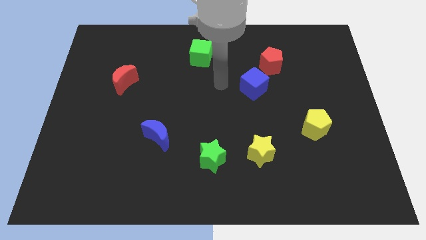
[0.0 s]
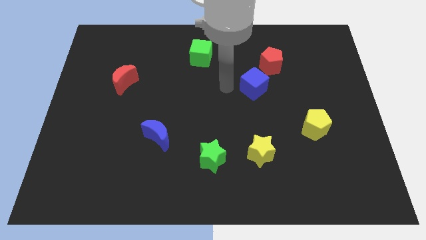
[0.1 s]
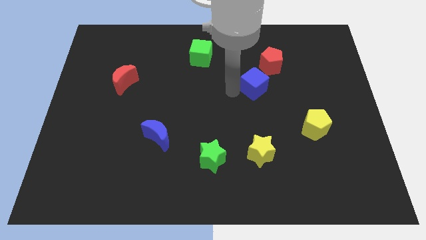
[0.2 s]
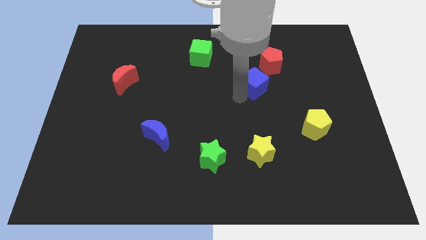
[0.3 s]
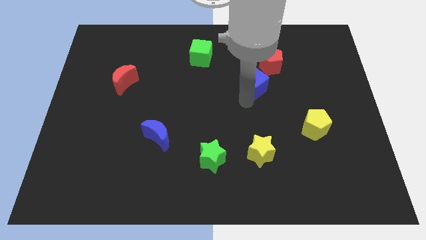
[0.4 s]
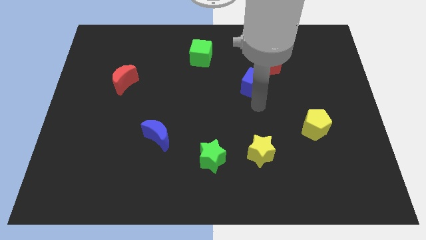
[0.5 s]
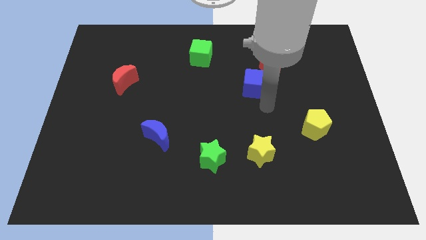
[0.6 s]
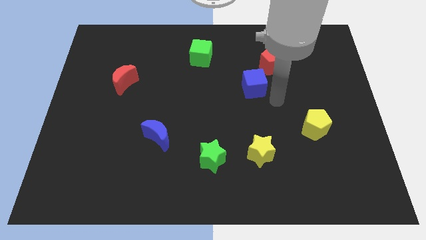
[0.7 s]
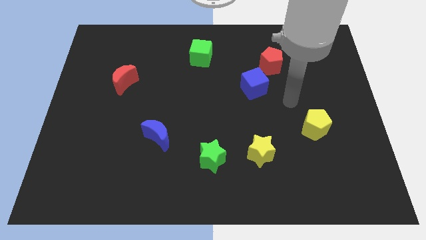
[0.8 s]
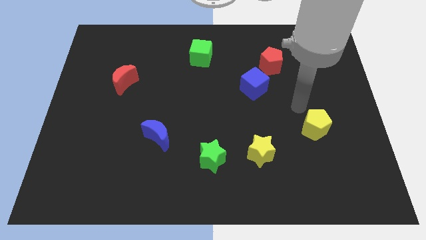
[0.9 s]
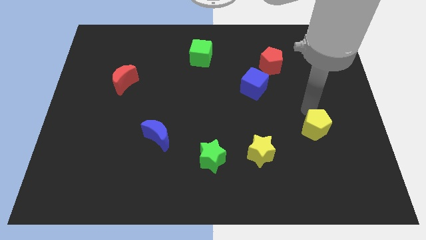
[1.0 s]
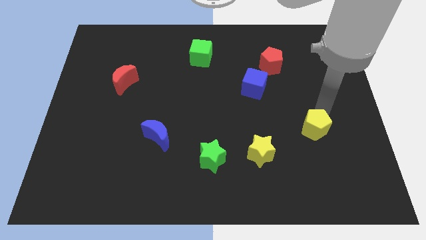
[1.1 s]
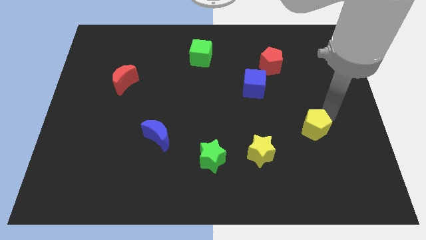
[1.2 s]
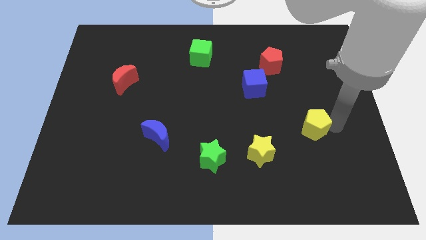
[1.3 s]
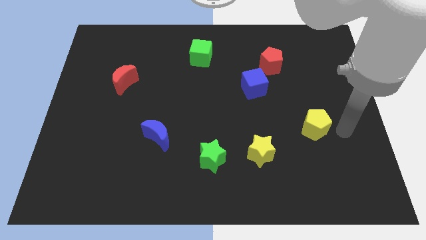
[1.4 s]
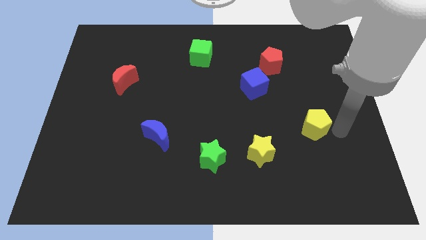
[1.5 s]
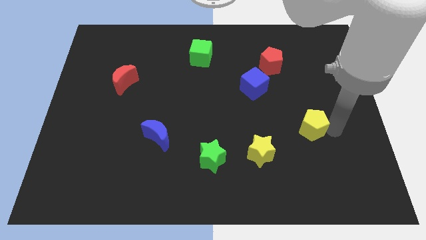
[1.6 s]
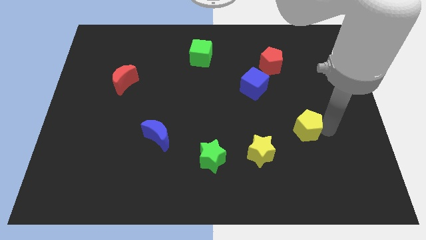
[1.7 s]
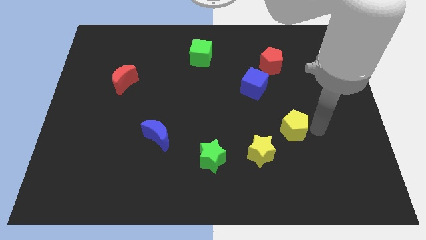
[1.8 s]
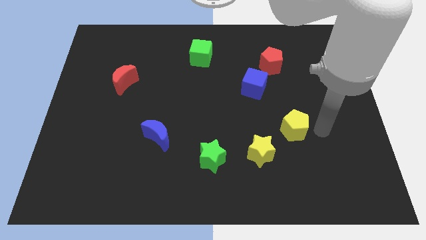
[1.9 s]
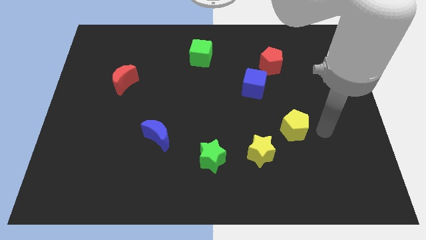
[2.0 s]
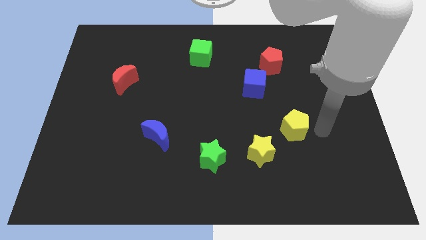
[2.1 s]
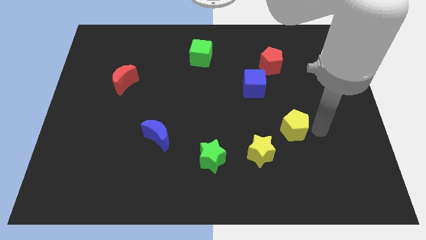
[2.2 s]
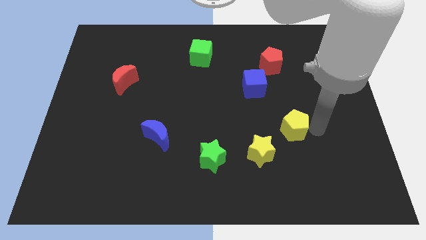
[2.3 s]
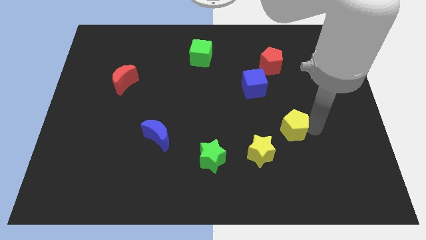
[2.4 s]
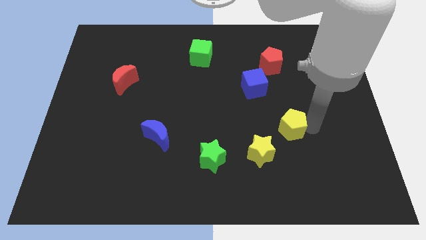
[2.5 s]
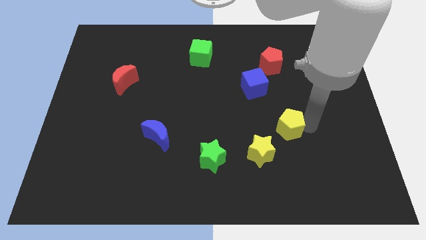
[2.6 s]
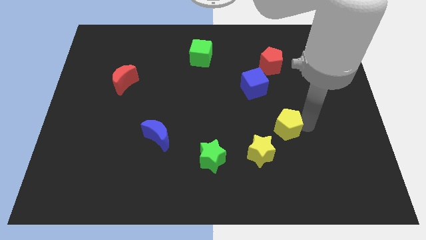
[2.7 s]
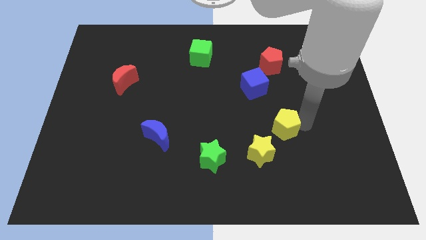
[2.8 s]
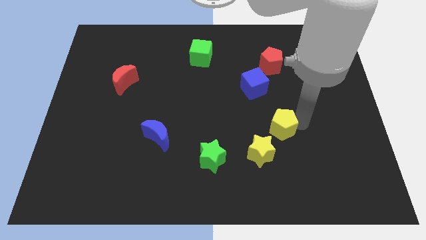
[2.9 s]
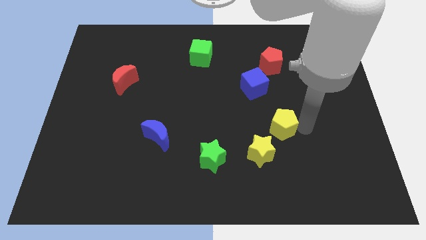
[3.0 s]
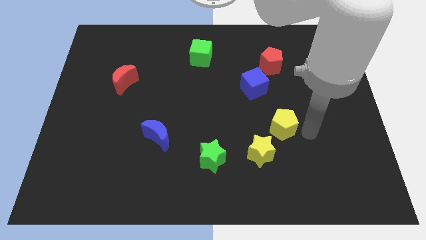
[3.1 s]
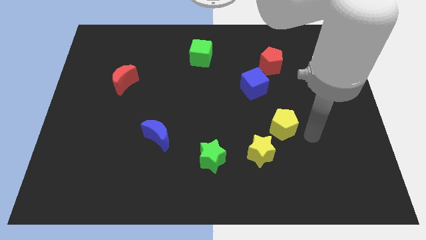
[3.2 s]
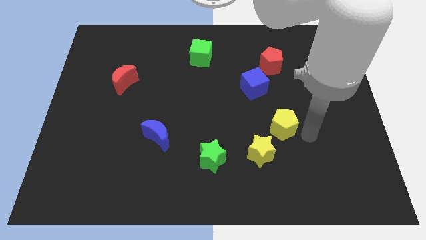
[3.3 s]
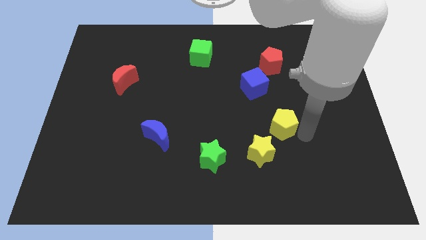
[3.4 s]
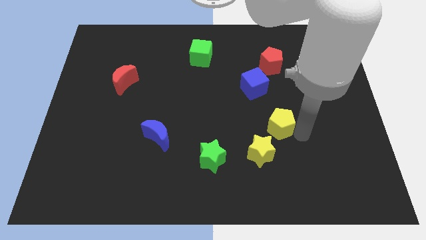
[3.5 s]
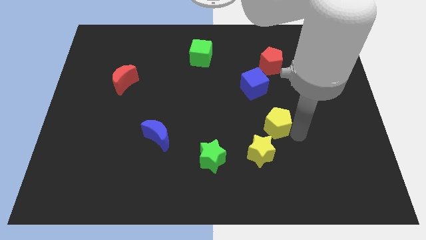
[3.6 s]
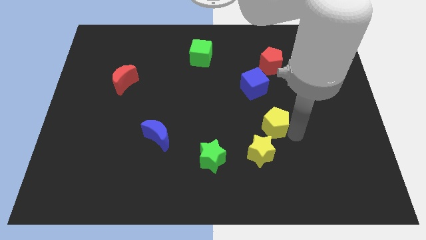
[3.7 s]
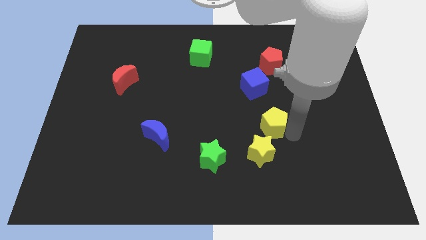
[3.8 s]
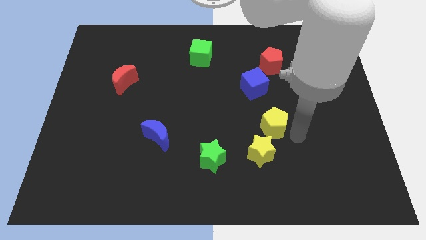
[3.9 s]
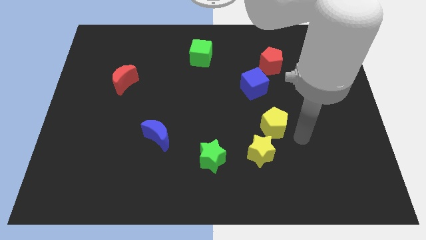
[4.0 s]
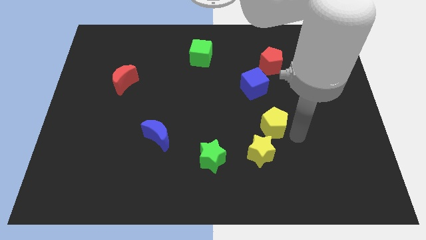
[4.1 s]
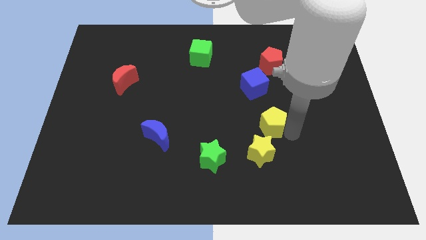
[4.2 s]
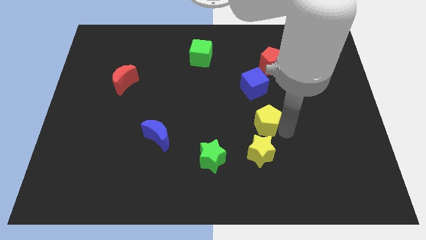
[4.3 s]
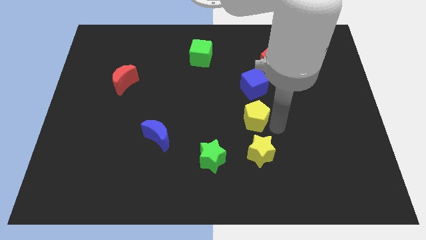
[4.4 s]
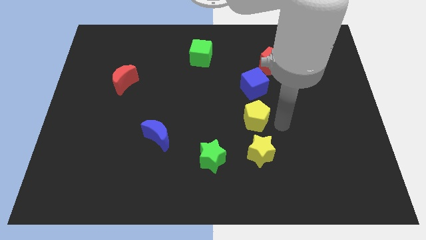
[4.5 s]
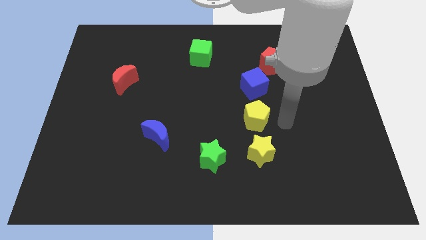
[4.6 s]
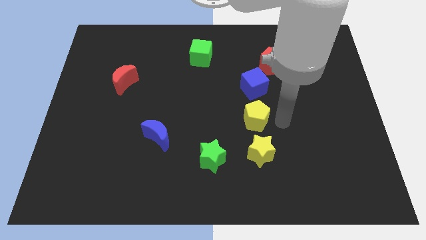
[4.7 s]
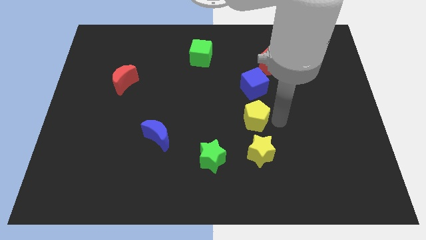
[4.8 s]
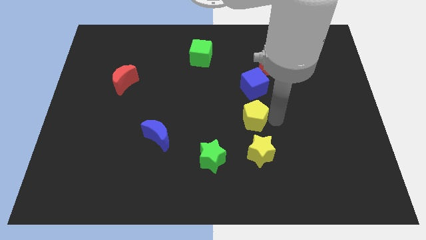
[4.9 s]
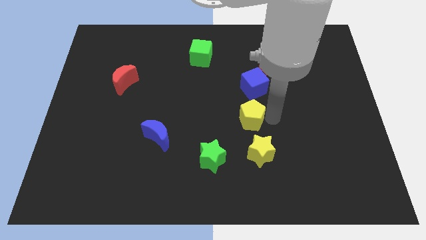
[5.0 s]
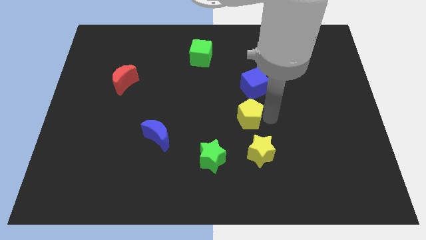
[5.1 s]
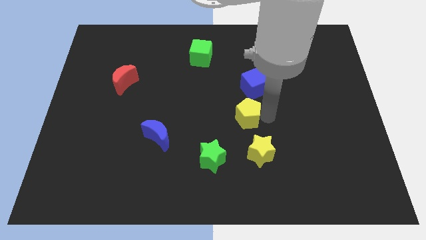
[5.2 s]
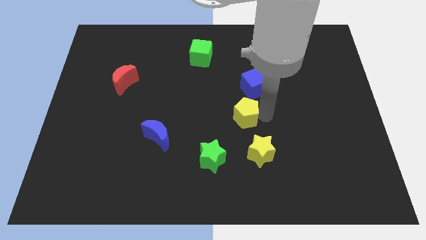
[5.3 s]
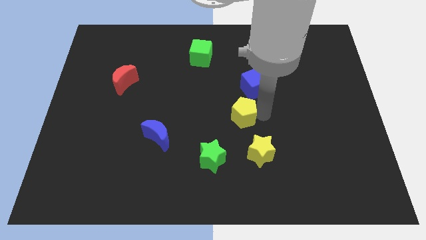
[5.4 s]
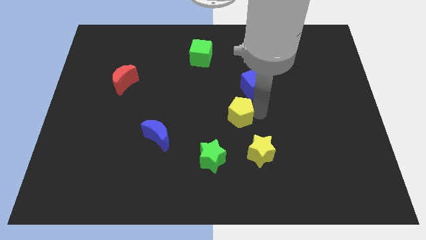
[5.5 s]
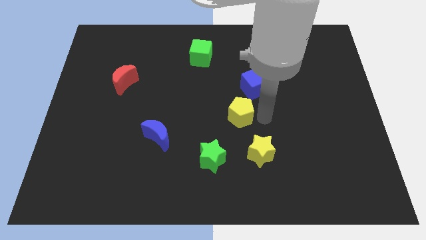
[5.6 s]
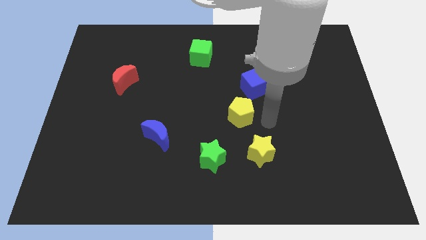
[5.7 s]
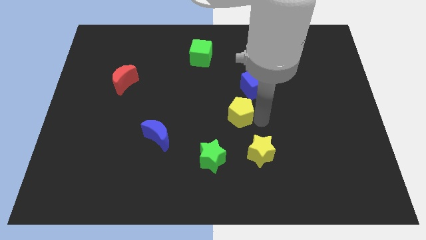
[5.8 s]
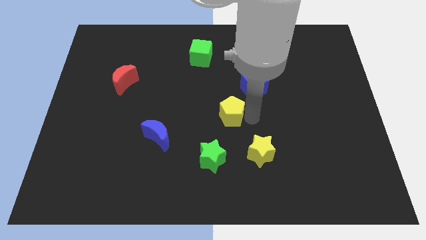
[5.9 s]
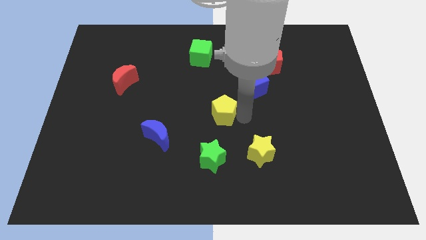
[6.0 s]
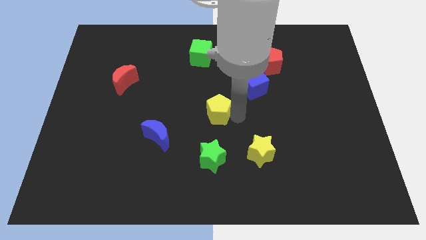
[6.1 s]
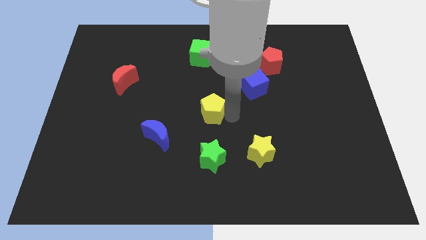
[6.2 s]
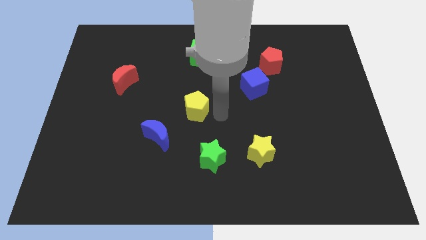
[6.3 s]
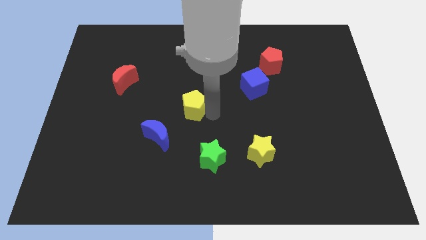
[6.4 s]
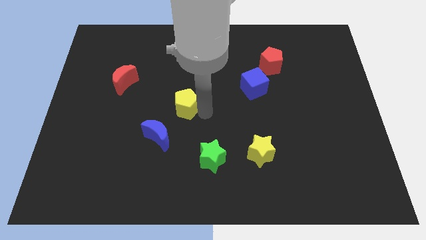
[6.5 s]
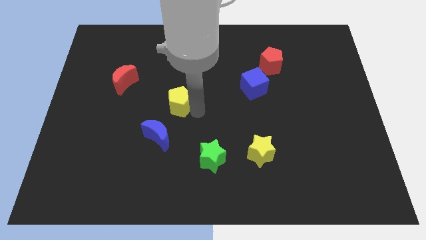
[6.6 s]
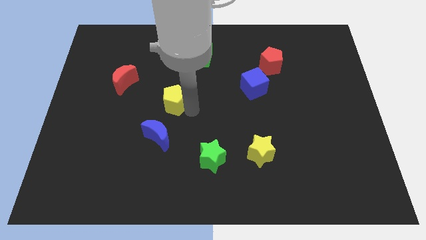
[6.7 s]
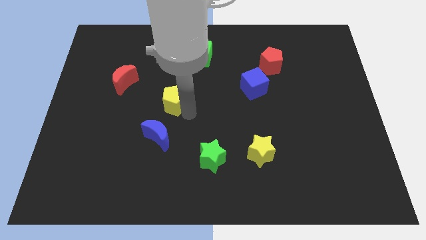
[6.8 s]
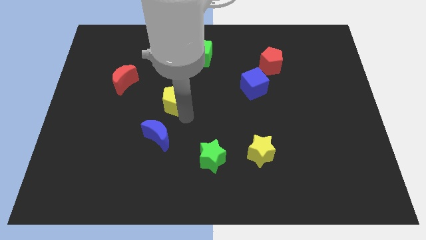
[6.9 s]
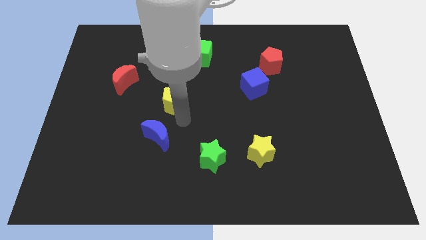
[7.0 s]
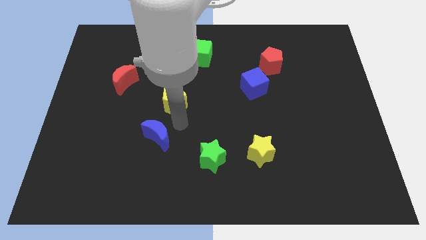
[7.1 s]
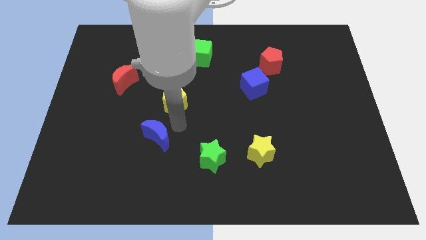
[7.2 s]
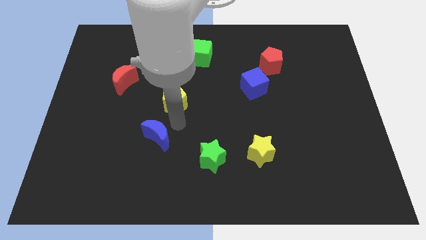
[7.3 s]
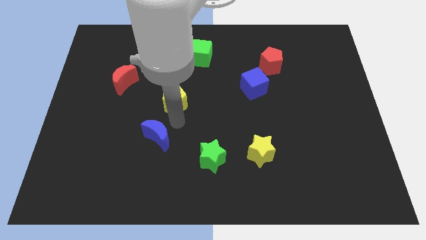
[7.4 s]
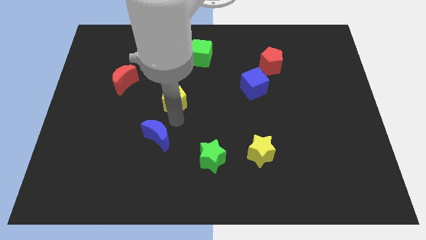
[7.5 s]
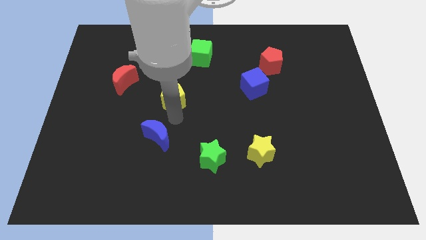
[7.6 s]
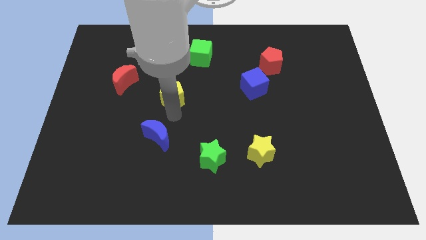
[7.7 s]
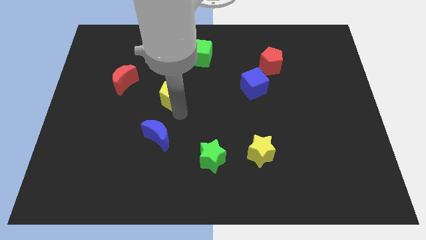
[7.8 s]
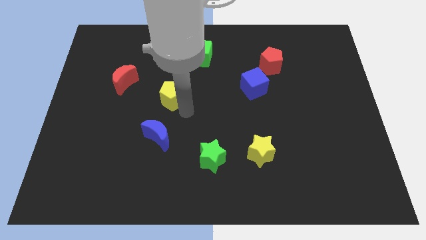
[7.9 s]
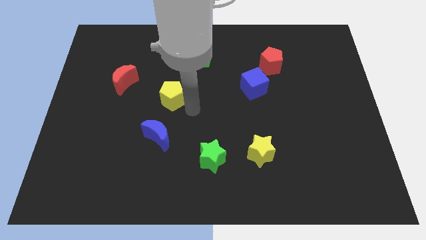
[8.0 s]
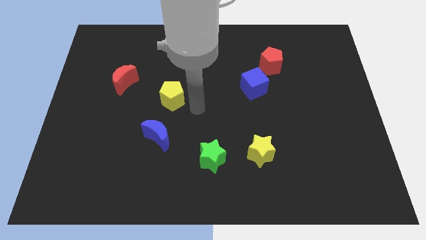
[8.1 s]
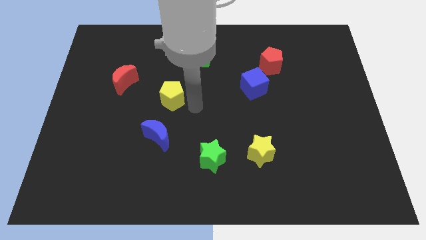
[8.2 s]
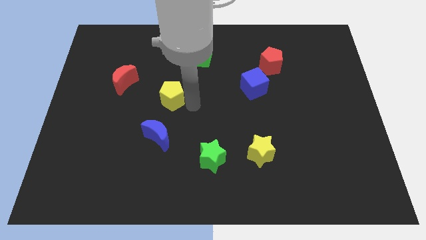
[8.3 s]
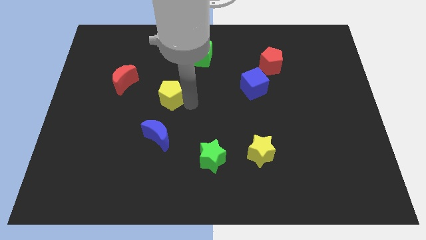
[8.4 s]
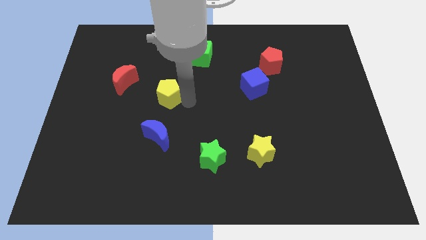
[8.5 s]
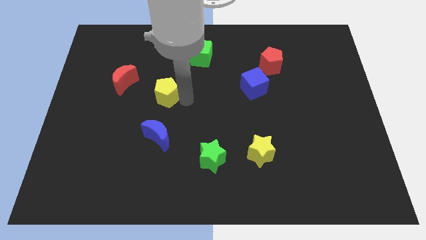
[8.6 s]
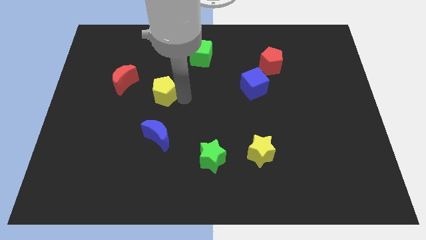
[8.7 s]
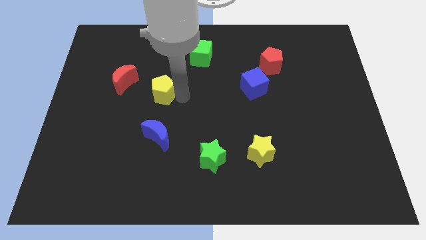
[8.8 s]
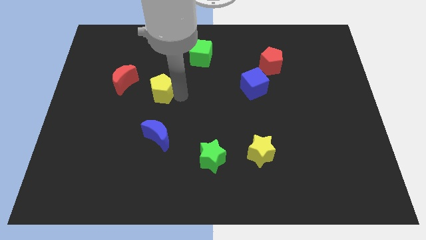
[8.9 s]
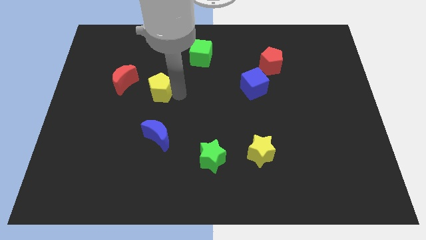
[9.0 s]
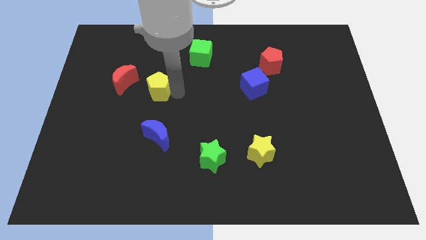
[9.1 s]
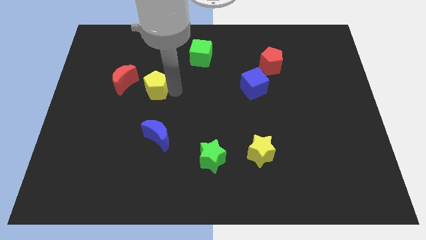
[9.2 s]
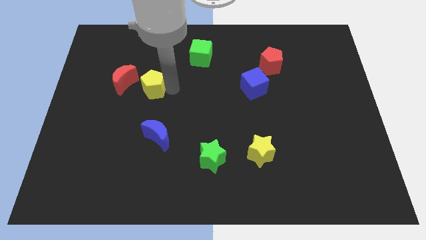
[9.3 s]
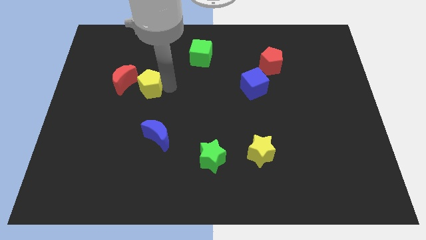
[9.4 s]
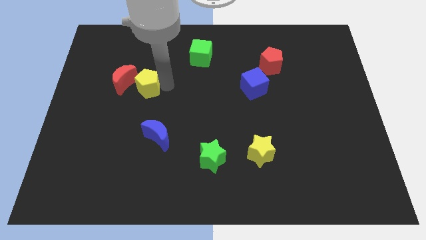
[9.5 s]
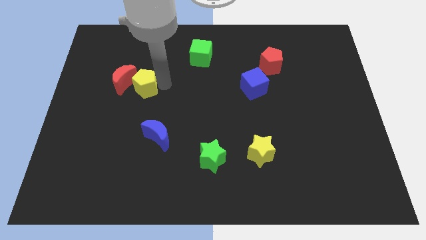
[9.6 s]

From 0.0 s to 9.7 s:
slide the yellow pentagon close to the red moon
